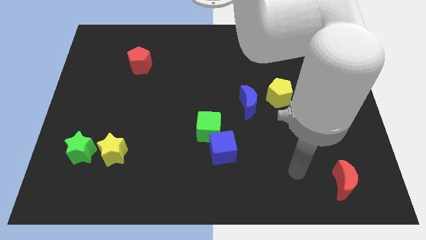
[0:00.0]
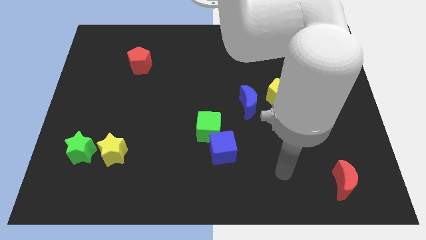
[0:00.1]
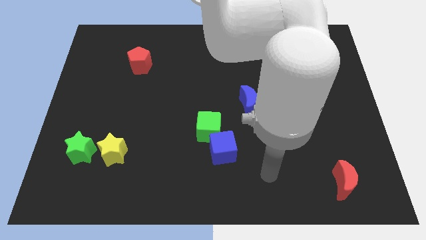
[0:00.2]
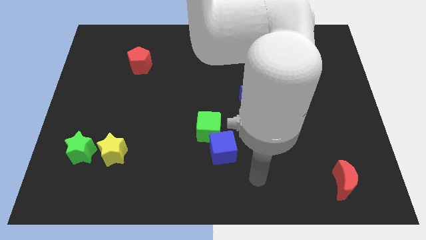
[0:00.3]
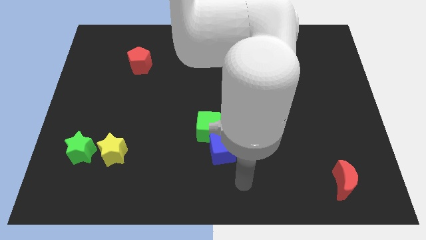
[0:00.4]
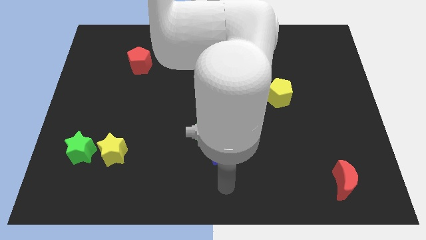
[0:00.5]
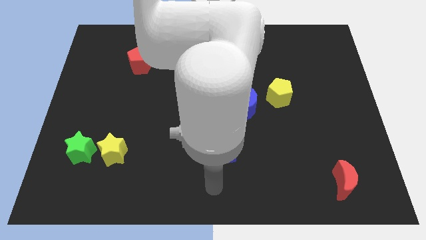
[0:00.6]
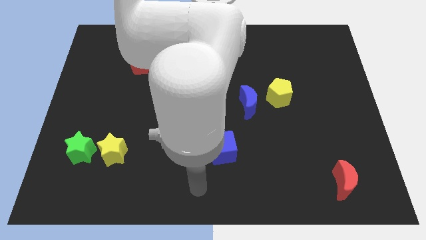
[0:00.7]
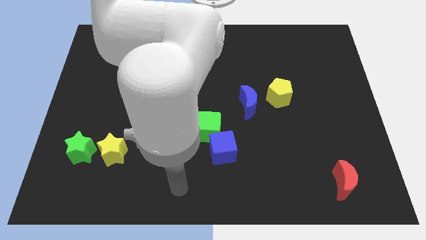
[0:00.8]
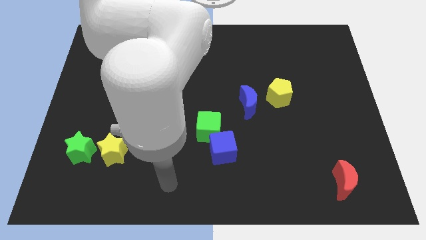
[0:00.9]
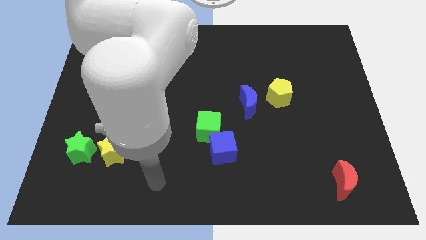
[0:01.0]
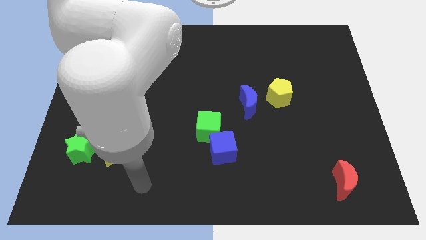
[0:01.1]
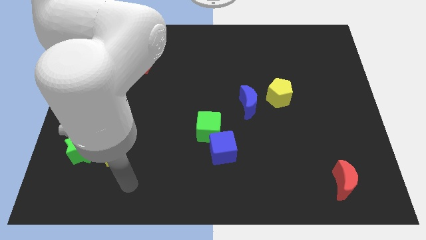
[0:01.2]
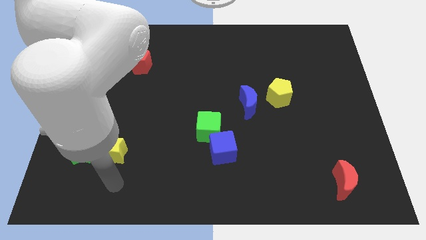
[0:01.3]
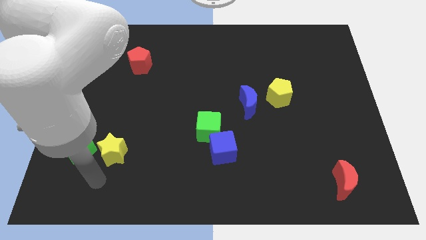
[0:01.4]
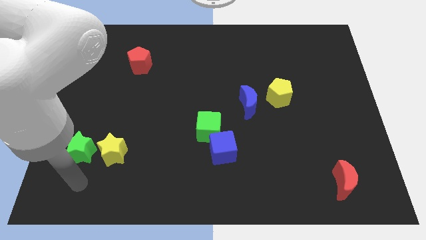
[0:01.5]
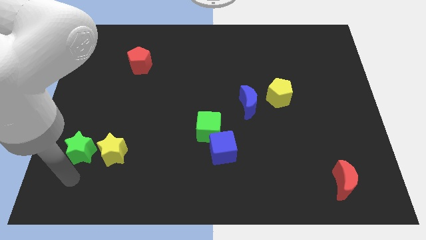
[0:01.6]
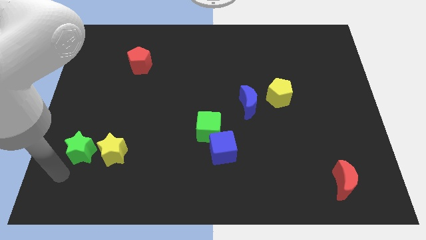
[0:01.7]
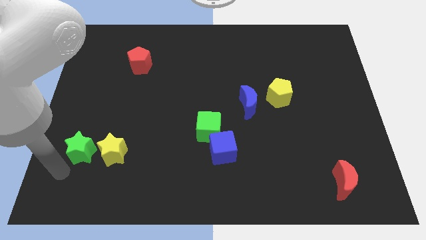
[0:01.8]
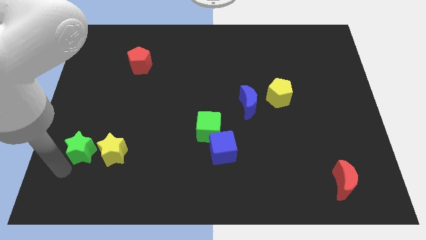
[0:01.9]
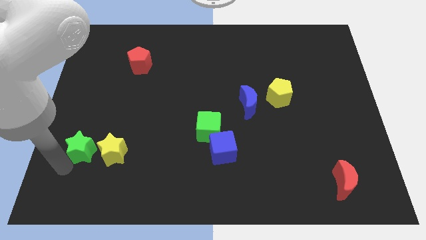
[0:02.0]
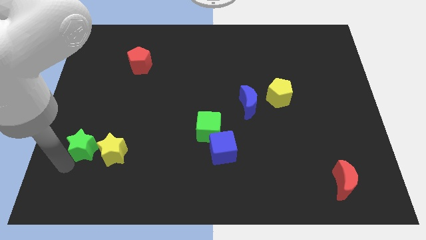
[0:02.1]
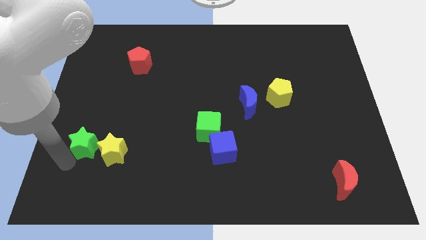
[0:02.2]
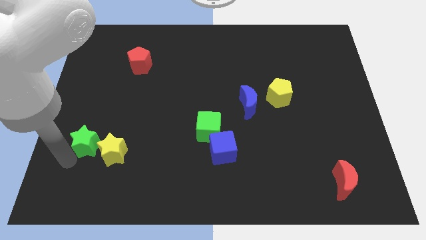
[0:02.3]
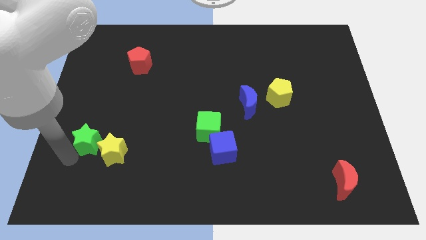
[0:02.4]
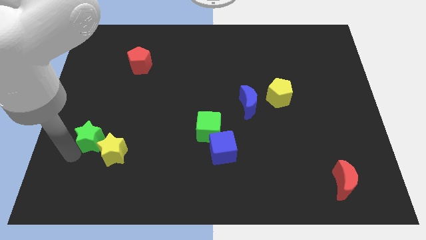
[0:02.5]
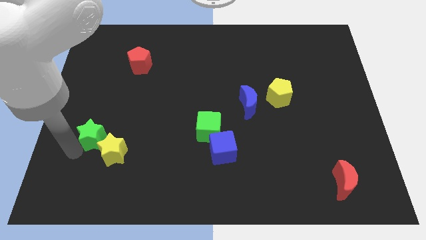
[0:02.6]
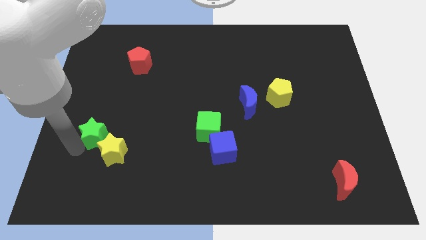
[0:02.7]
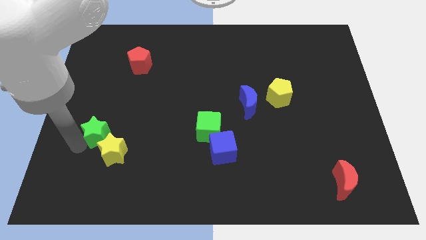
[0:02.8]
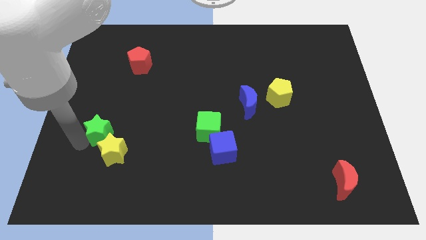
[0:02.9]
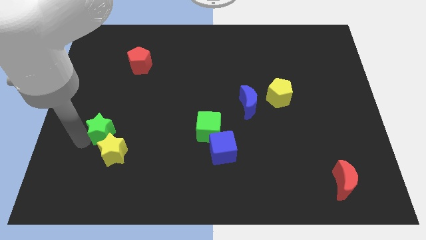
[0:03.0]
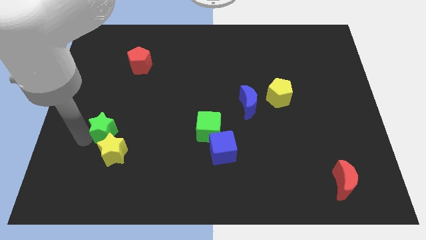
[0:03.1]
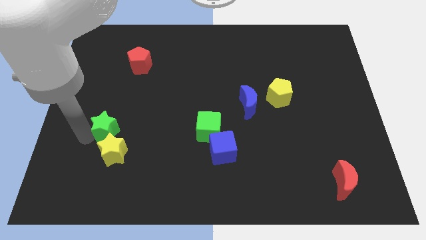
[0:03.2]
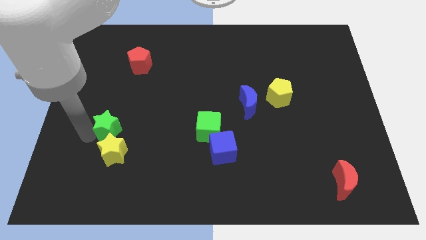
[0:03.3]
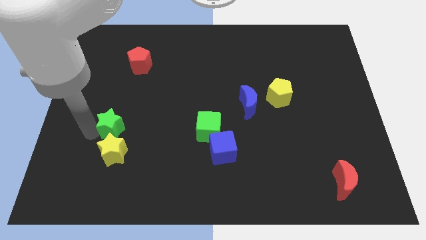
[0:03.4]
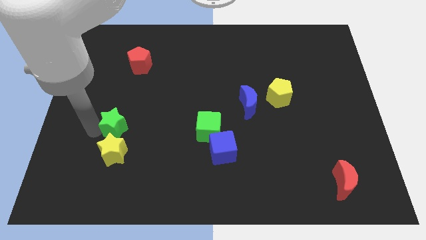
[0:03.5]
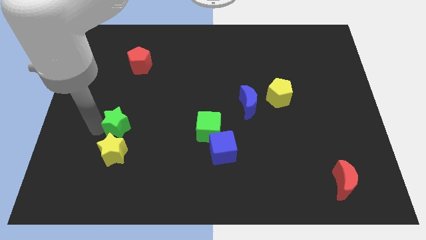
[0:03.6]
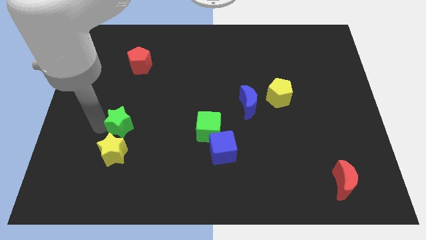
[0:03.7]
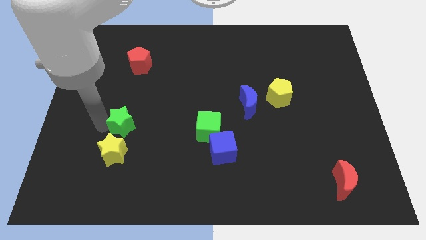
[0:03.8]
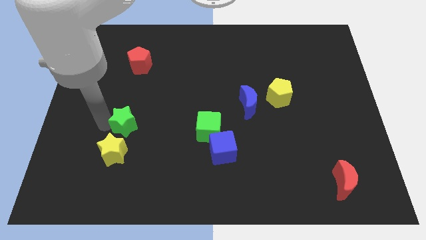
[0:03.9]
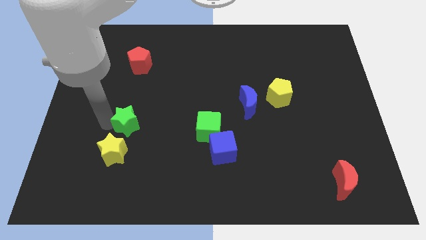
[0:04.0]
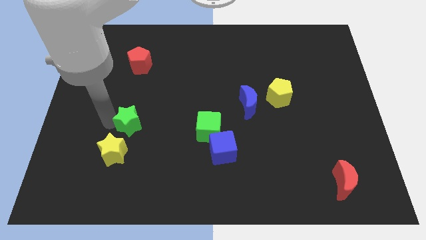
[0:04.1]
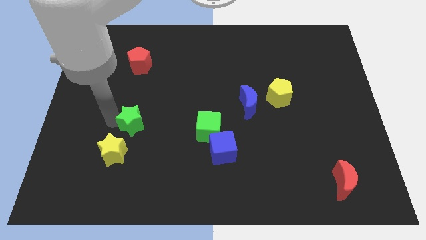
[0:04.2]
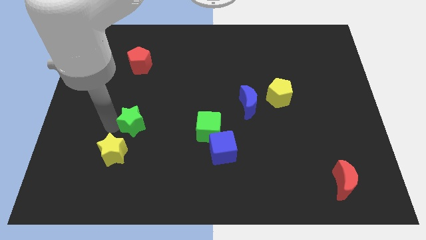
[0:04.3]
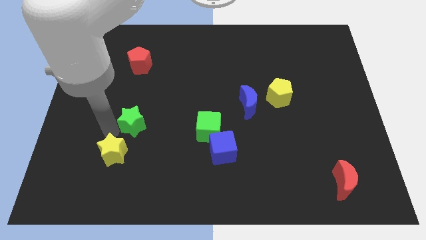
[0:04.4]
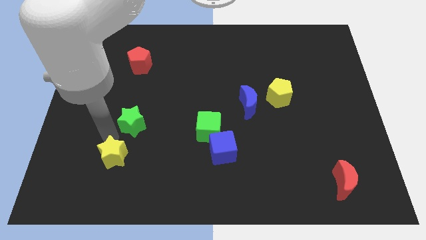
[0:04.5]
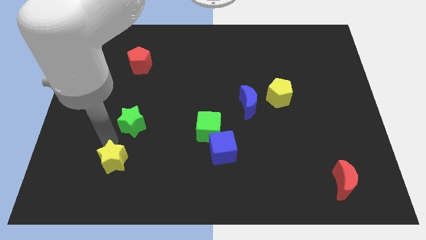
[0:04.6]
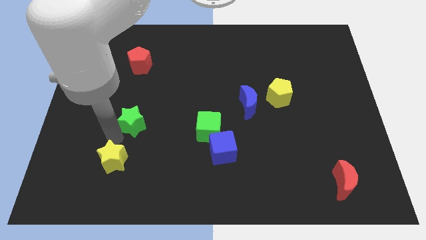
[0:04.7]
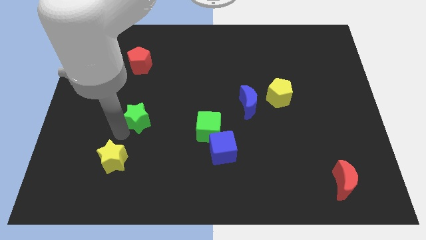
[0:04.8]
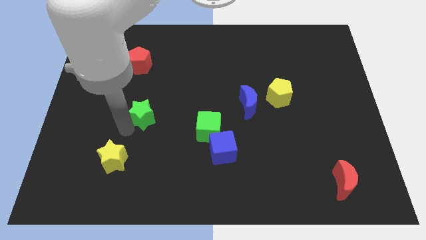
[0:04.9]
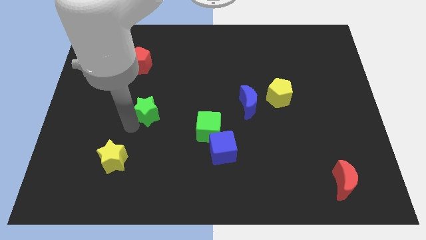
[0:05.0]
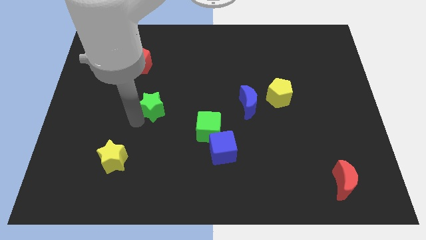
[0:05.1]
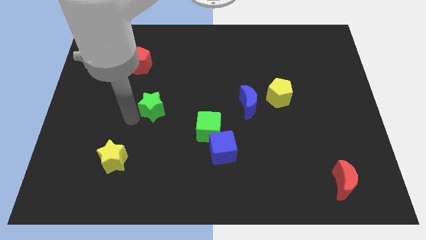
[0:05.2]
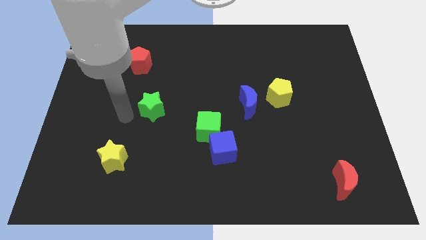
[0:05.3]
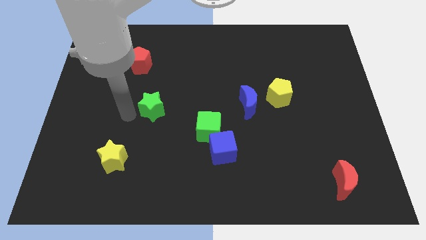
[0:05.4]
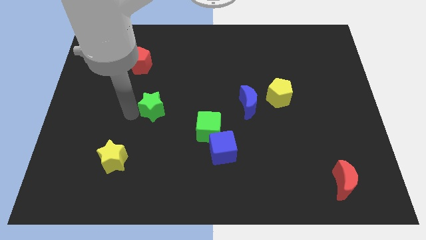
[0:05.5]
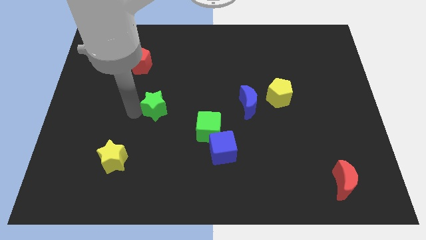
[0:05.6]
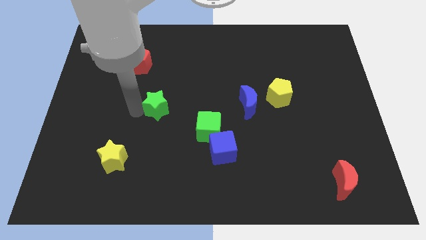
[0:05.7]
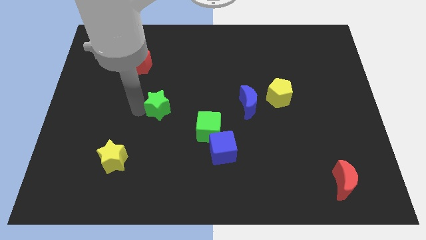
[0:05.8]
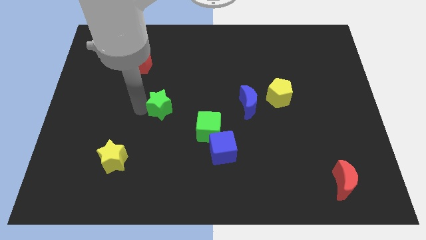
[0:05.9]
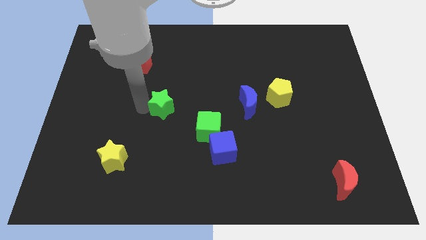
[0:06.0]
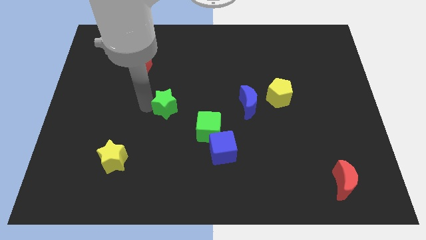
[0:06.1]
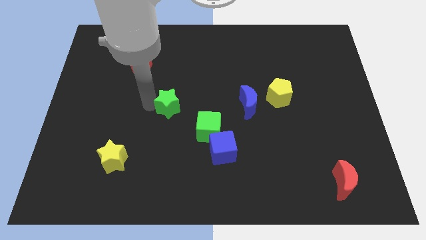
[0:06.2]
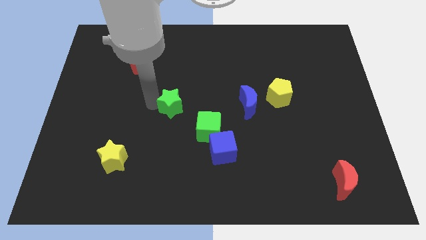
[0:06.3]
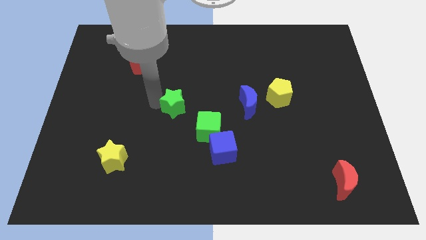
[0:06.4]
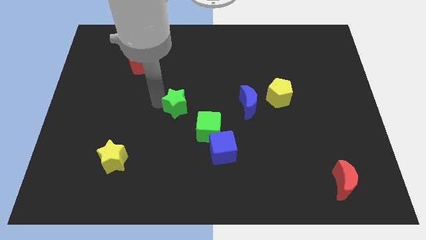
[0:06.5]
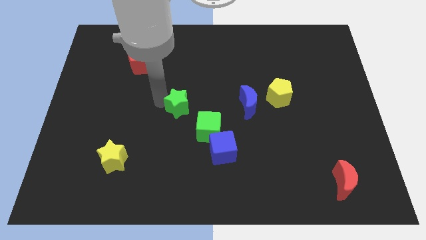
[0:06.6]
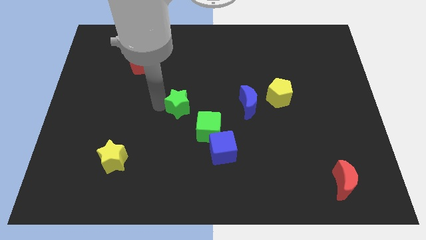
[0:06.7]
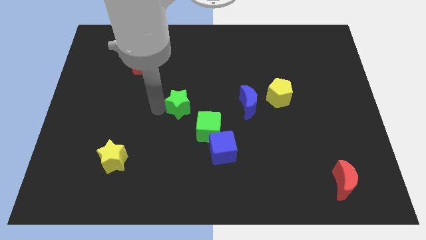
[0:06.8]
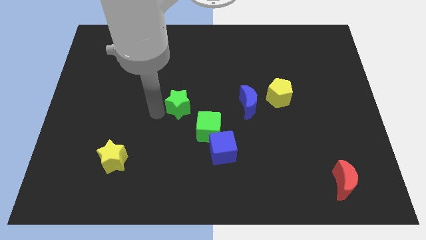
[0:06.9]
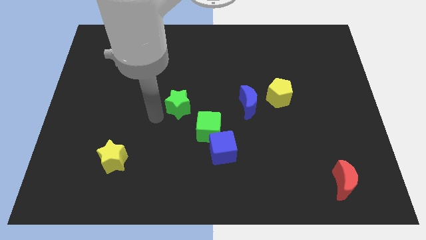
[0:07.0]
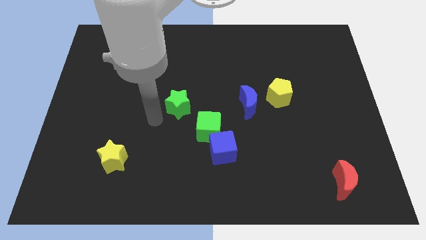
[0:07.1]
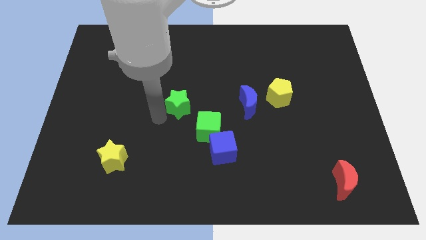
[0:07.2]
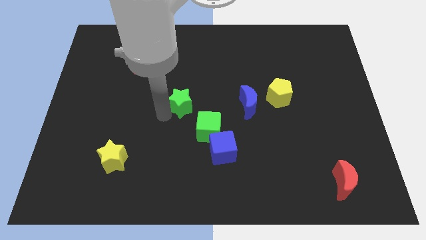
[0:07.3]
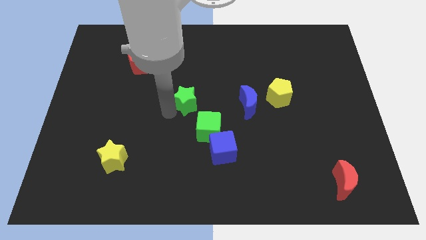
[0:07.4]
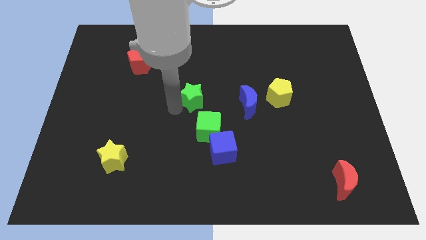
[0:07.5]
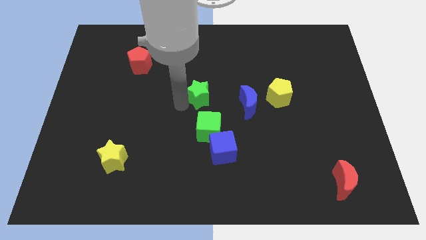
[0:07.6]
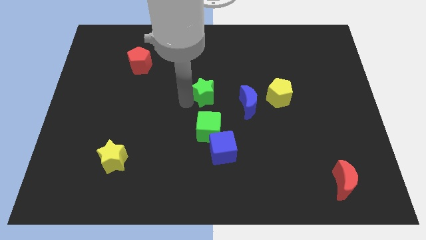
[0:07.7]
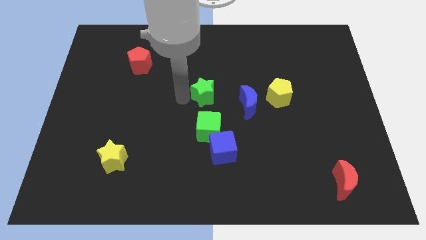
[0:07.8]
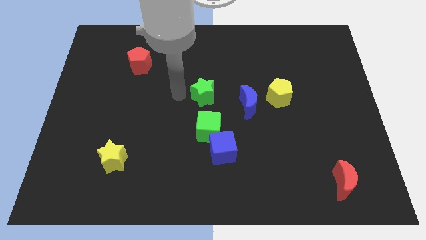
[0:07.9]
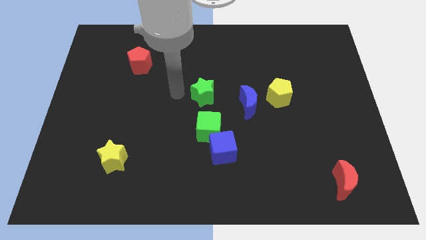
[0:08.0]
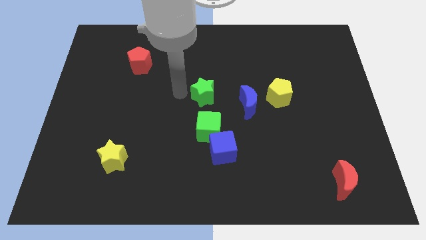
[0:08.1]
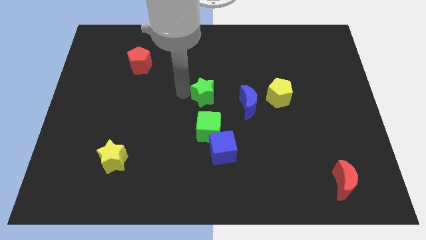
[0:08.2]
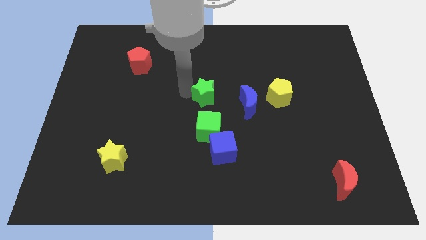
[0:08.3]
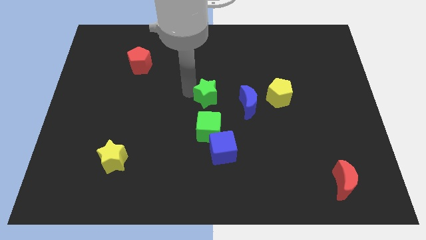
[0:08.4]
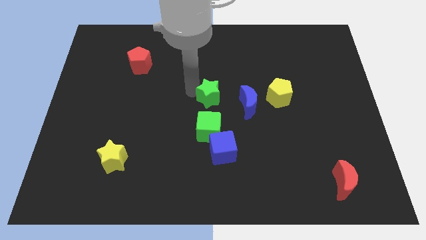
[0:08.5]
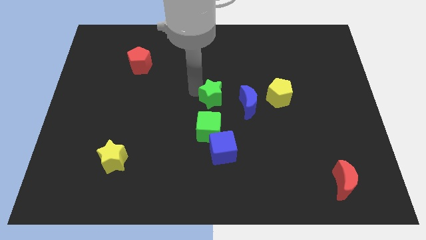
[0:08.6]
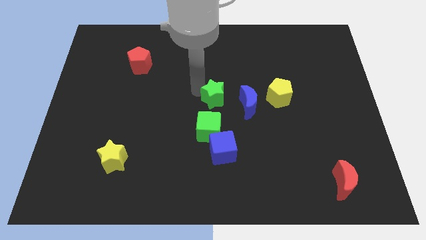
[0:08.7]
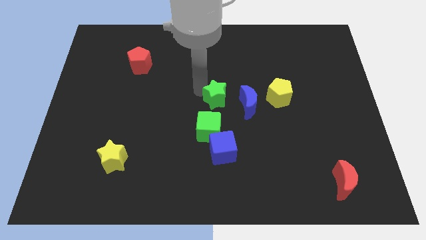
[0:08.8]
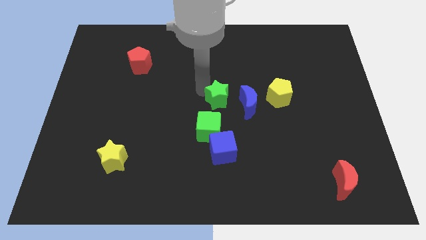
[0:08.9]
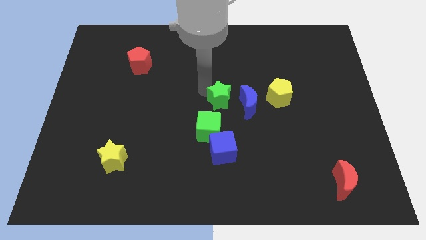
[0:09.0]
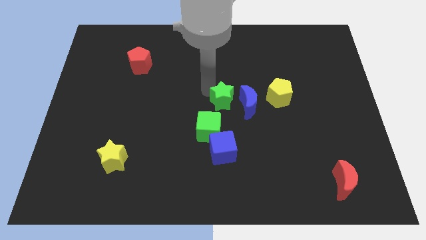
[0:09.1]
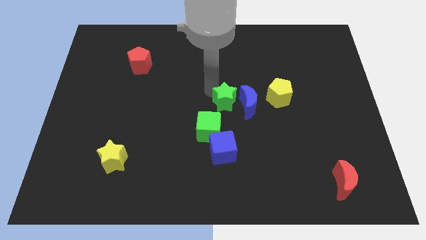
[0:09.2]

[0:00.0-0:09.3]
put the green star to the blue moon
